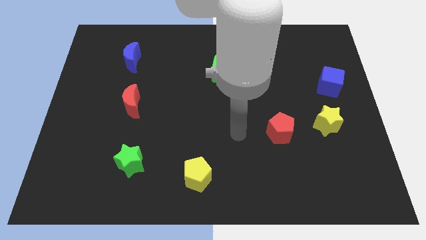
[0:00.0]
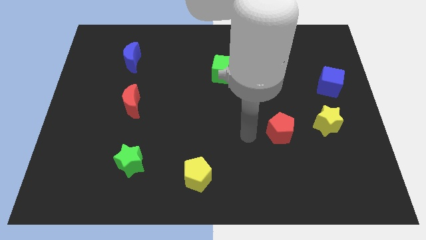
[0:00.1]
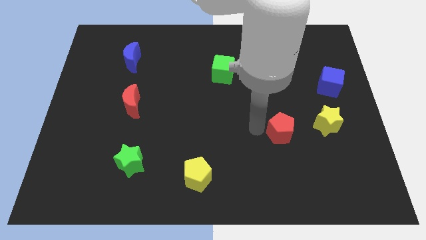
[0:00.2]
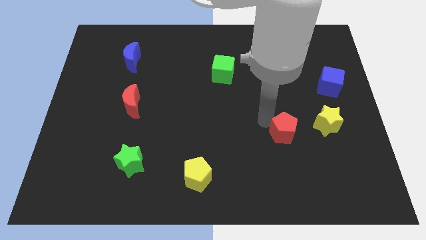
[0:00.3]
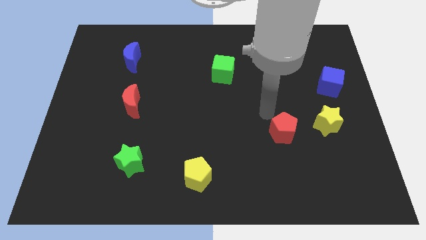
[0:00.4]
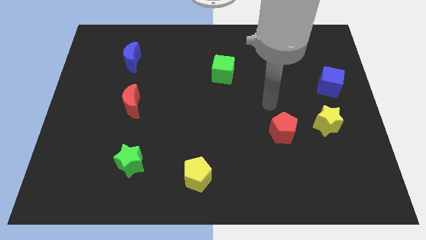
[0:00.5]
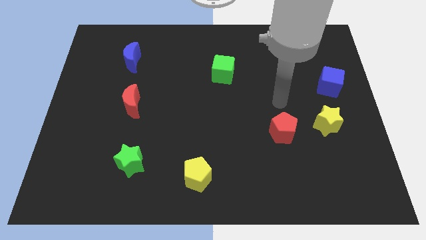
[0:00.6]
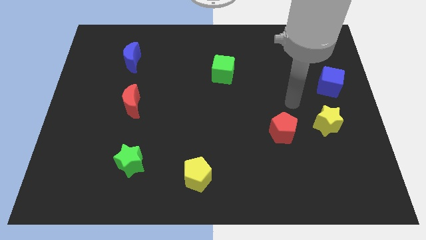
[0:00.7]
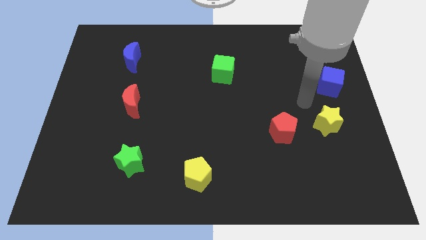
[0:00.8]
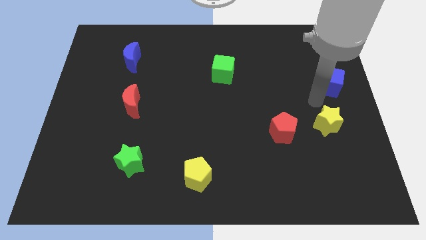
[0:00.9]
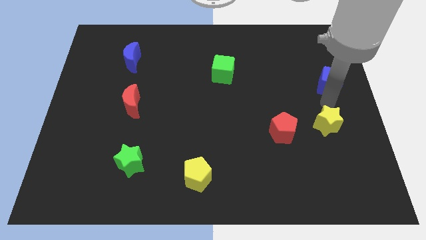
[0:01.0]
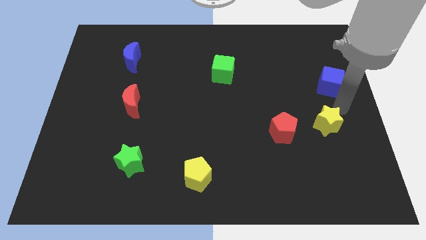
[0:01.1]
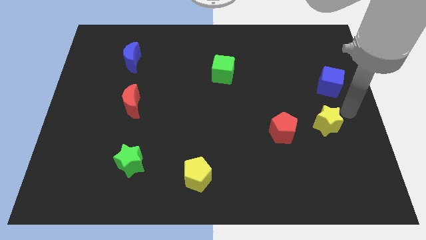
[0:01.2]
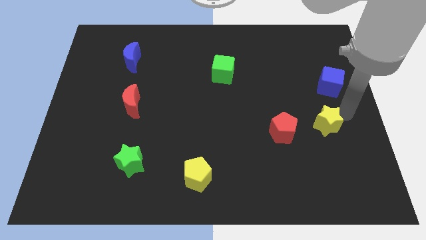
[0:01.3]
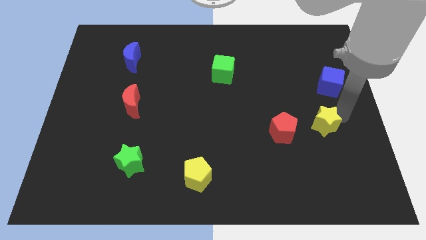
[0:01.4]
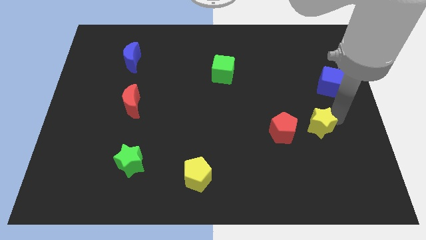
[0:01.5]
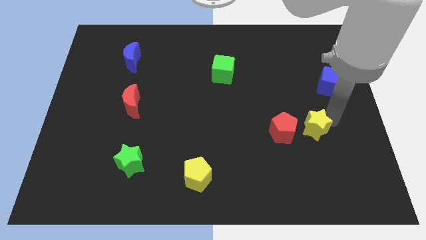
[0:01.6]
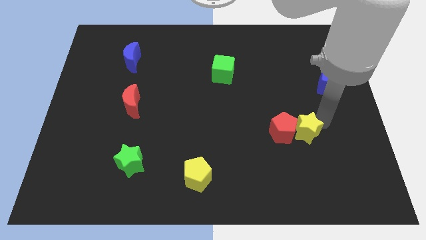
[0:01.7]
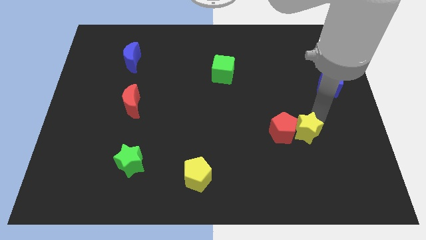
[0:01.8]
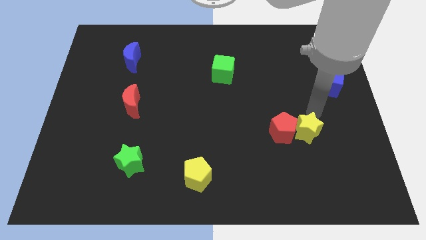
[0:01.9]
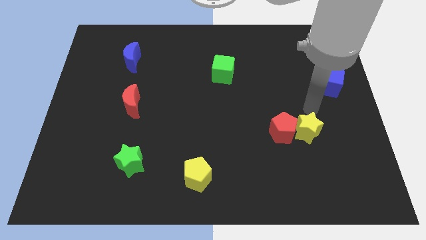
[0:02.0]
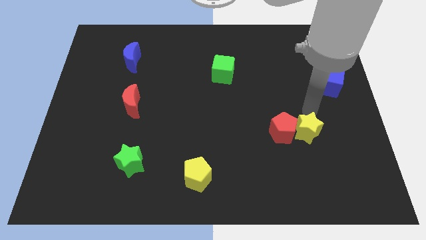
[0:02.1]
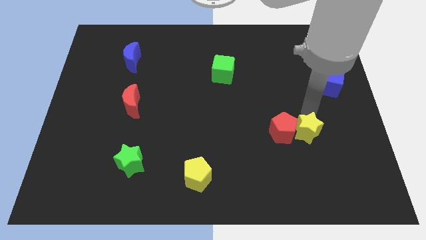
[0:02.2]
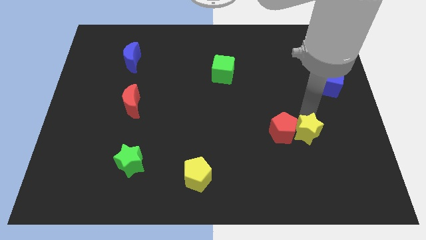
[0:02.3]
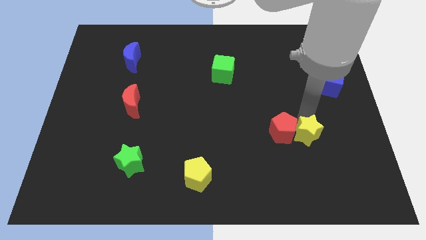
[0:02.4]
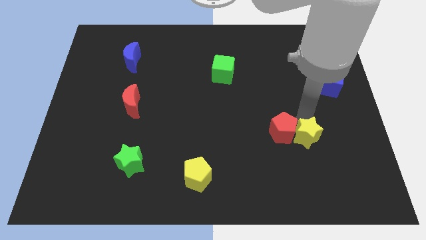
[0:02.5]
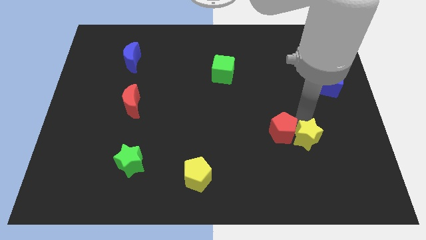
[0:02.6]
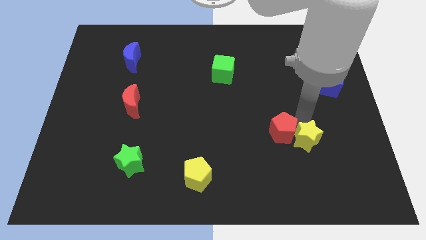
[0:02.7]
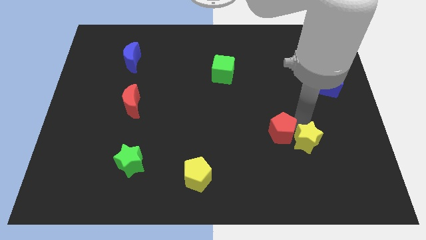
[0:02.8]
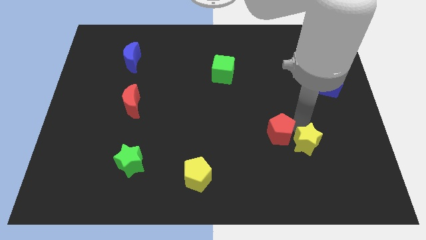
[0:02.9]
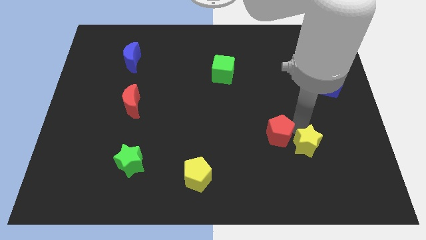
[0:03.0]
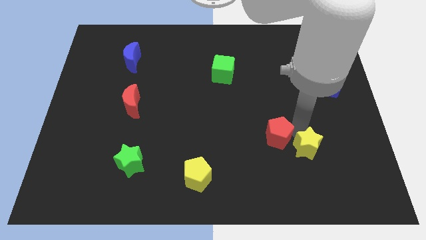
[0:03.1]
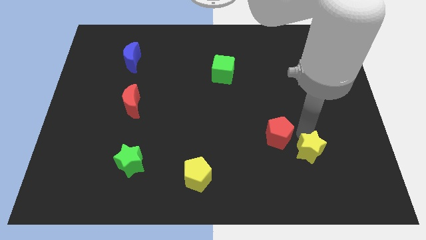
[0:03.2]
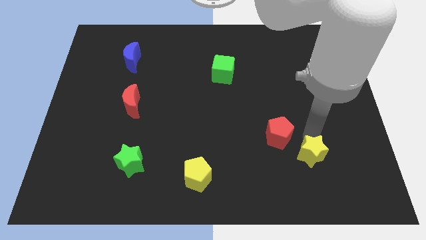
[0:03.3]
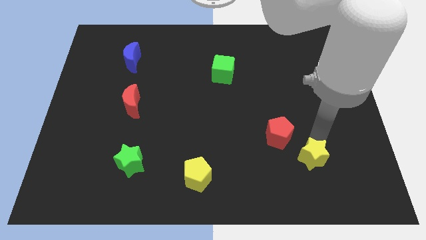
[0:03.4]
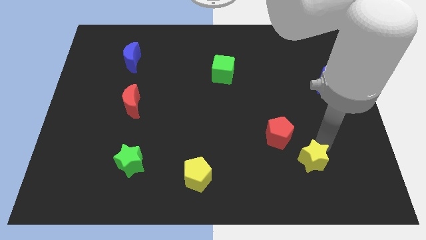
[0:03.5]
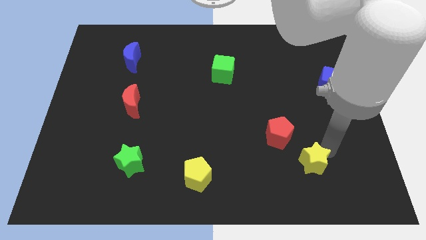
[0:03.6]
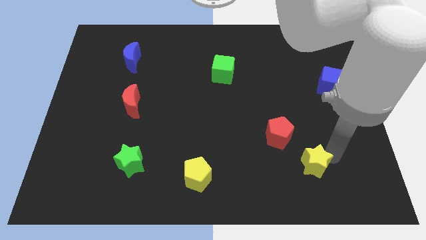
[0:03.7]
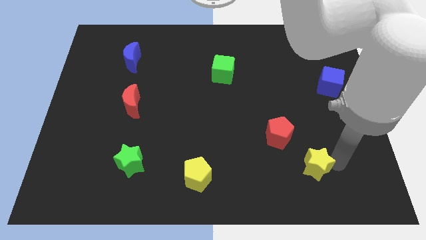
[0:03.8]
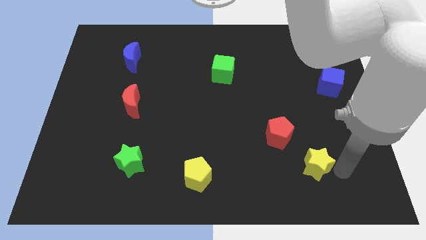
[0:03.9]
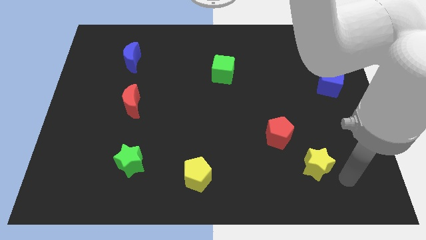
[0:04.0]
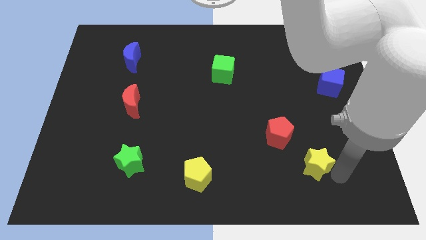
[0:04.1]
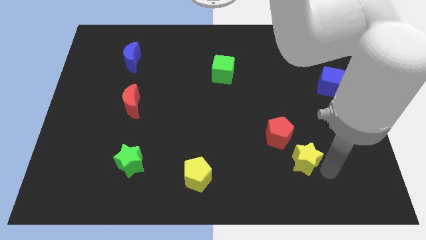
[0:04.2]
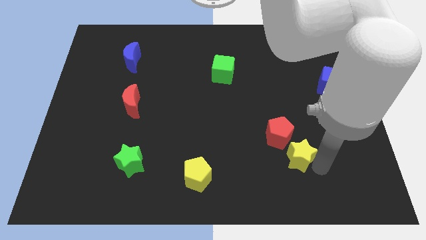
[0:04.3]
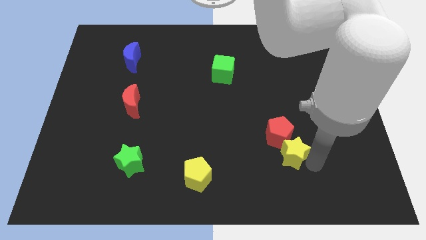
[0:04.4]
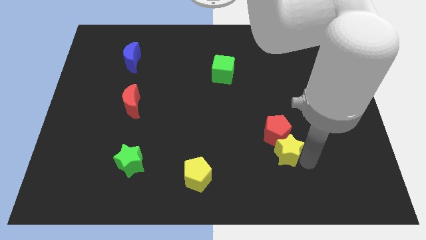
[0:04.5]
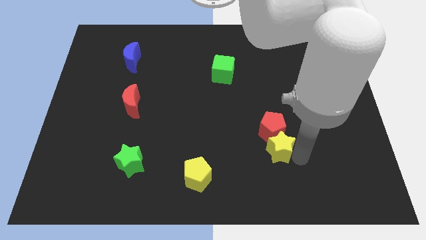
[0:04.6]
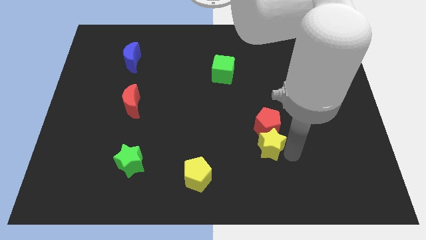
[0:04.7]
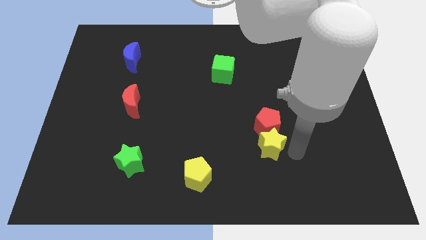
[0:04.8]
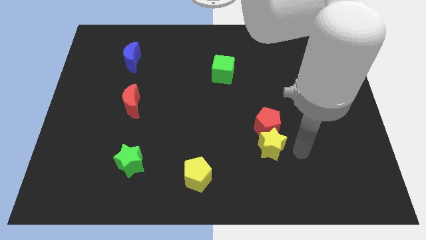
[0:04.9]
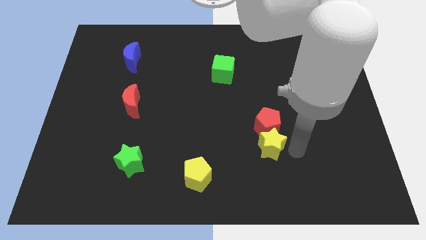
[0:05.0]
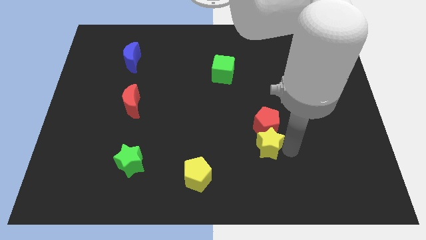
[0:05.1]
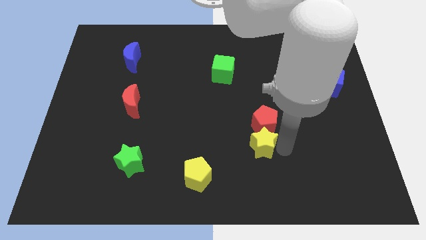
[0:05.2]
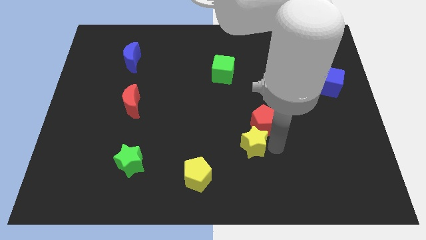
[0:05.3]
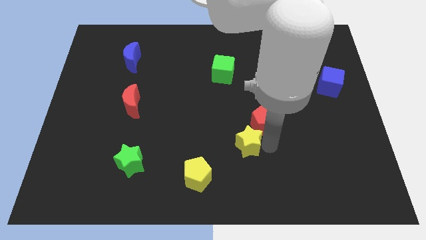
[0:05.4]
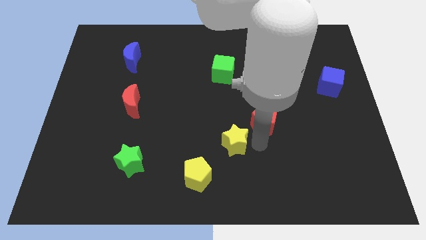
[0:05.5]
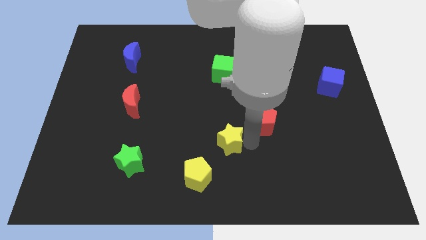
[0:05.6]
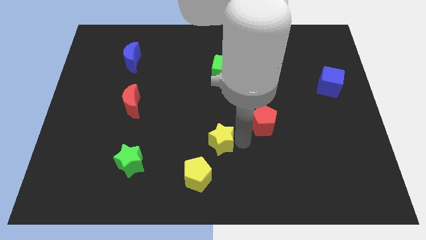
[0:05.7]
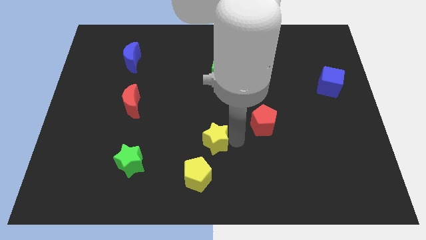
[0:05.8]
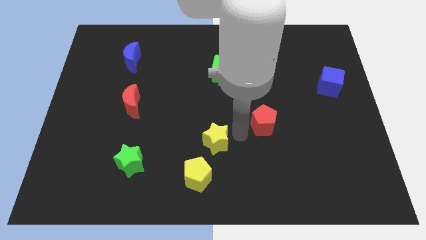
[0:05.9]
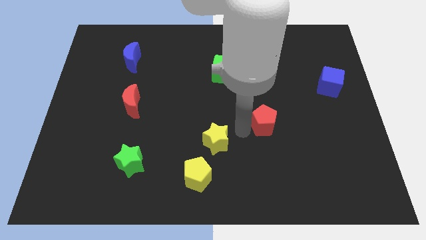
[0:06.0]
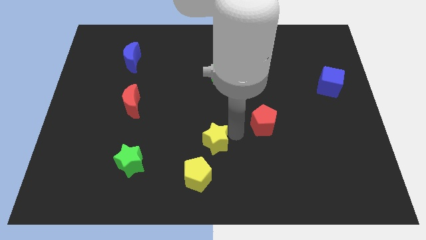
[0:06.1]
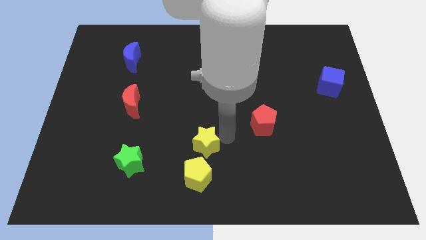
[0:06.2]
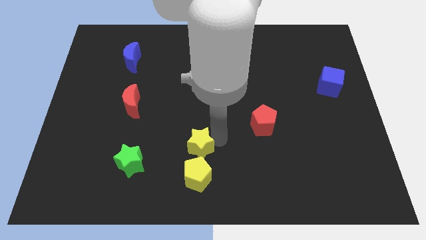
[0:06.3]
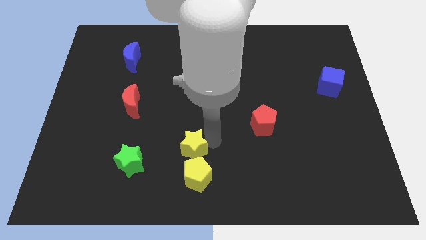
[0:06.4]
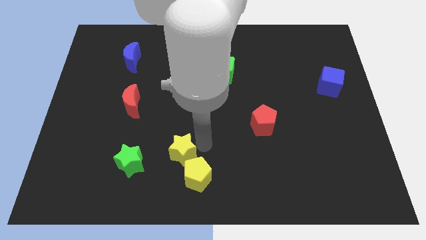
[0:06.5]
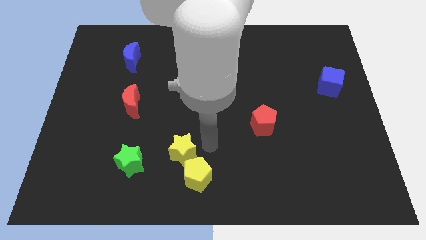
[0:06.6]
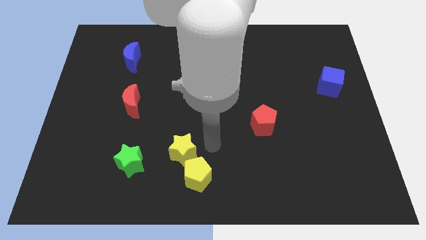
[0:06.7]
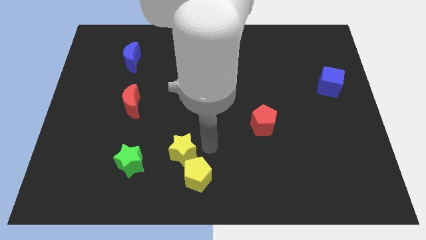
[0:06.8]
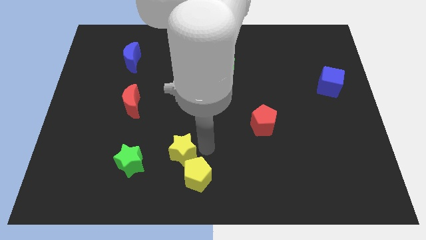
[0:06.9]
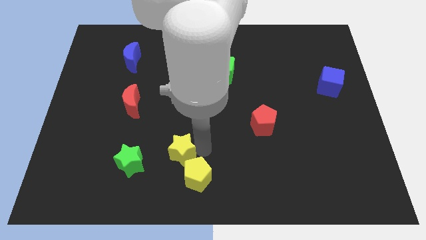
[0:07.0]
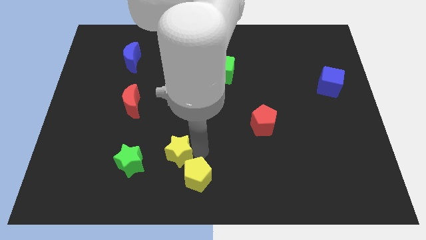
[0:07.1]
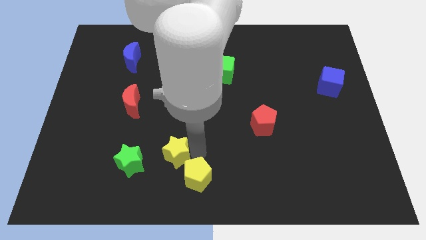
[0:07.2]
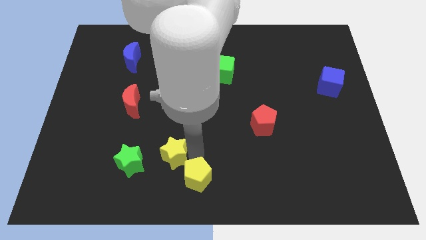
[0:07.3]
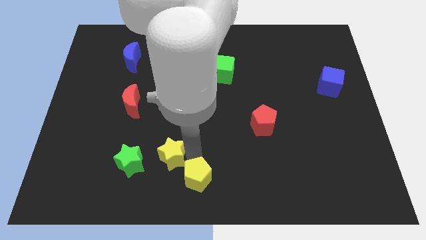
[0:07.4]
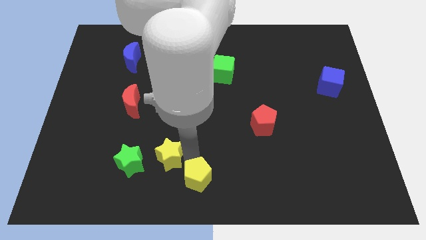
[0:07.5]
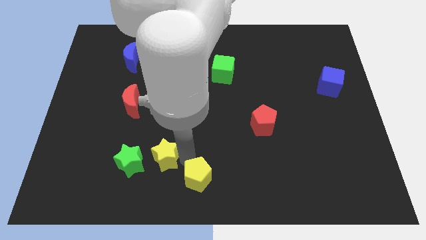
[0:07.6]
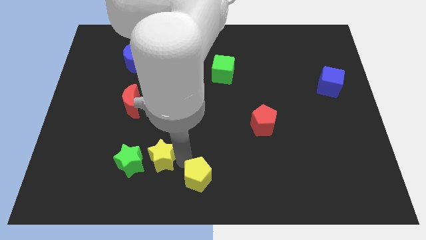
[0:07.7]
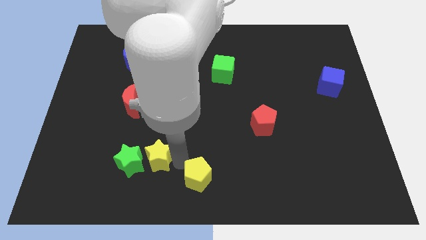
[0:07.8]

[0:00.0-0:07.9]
push the yellow star to the green star
